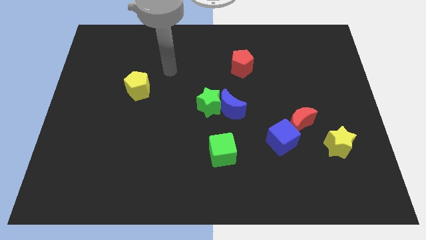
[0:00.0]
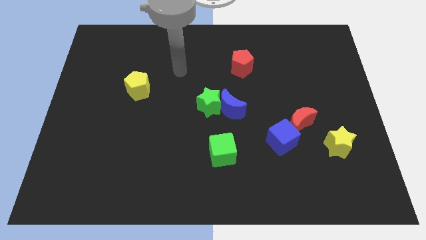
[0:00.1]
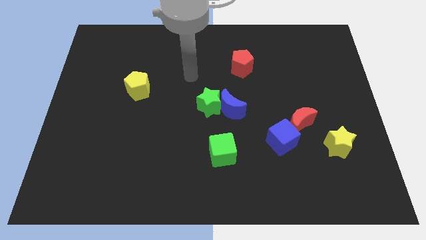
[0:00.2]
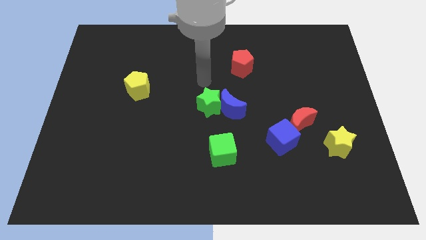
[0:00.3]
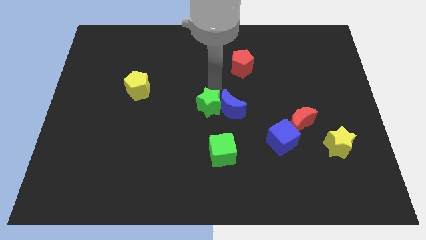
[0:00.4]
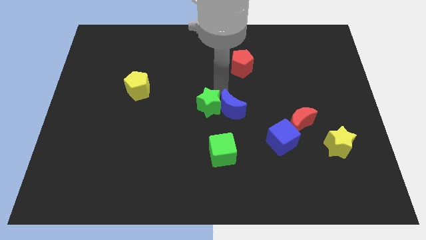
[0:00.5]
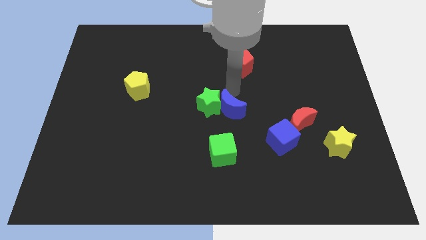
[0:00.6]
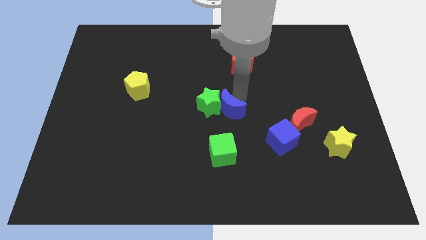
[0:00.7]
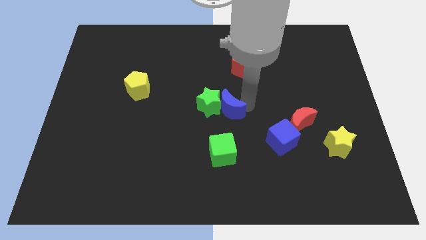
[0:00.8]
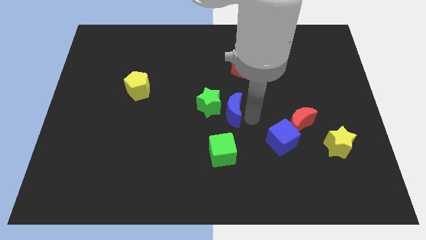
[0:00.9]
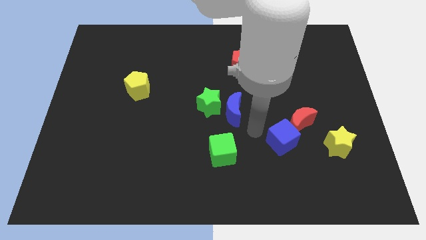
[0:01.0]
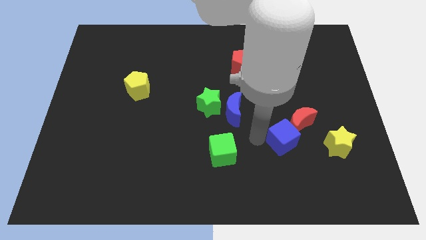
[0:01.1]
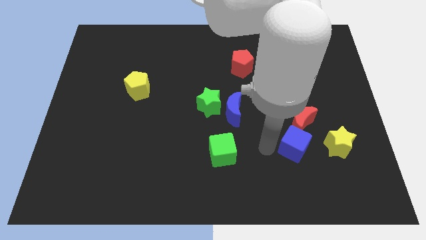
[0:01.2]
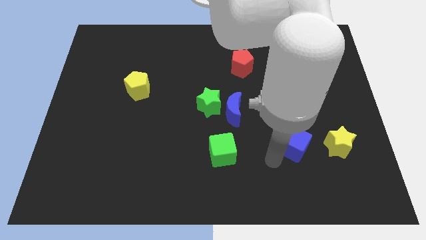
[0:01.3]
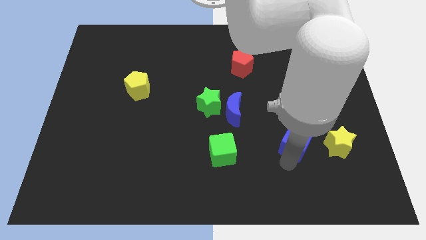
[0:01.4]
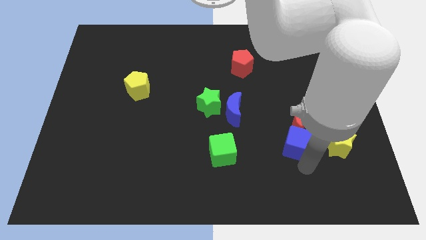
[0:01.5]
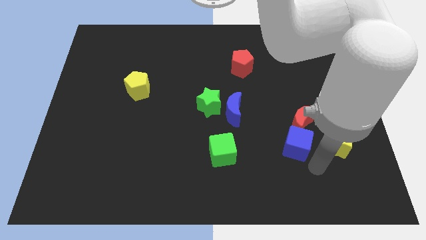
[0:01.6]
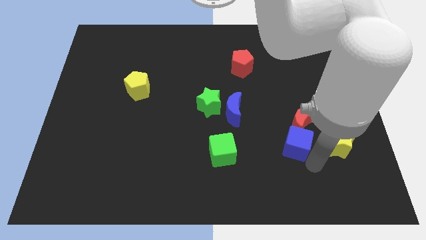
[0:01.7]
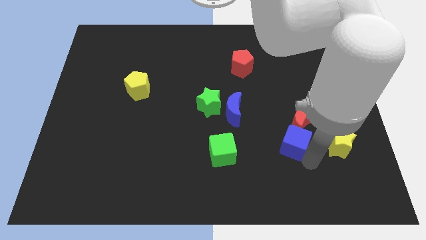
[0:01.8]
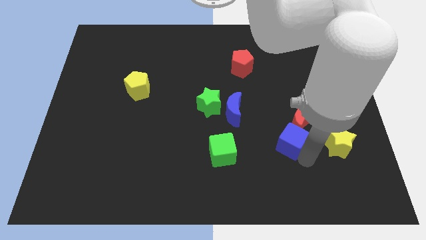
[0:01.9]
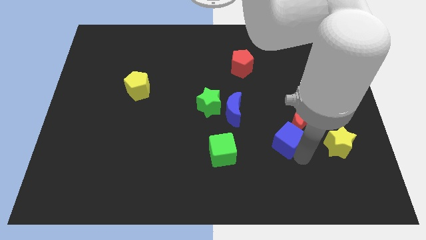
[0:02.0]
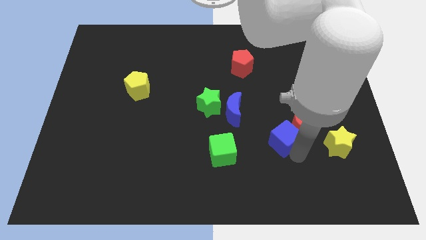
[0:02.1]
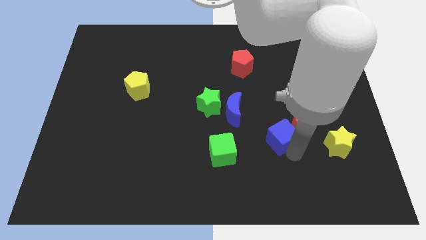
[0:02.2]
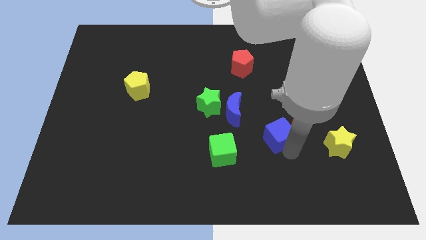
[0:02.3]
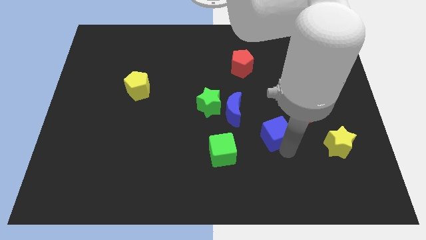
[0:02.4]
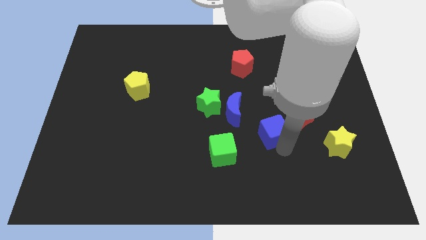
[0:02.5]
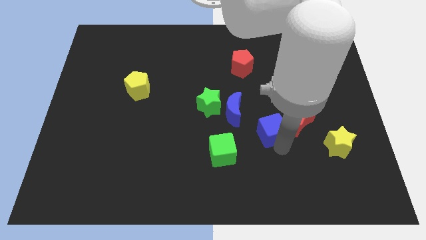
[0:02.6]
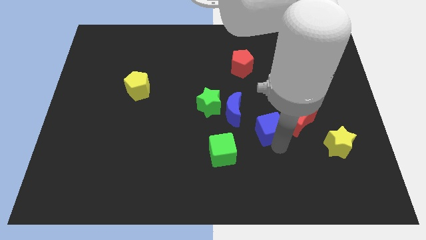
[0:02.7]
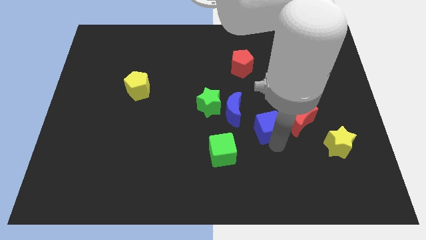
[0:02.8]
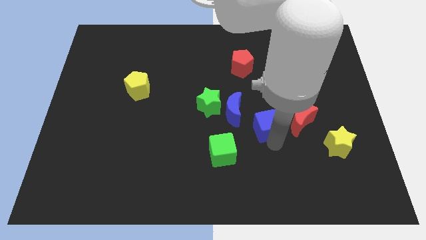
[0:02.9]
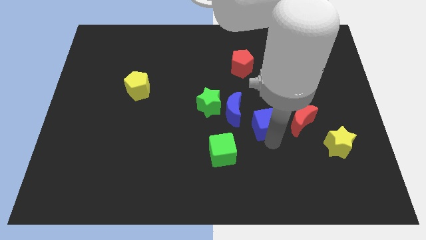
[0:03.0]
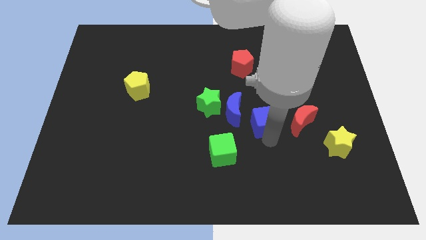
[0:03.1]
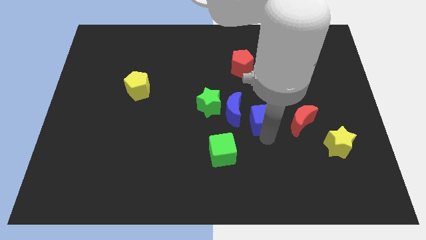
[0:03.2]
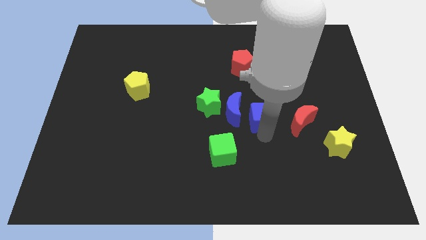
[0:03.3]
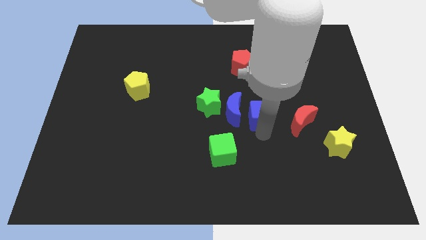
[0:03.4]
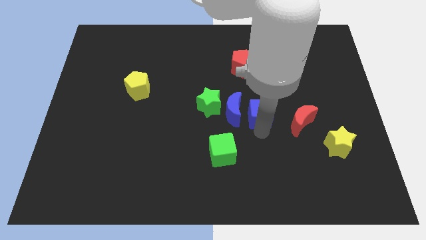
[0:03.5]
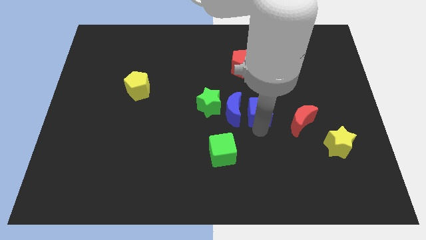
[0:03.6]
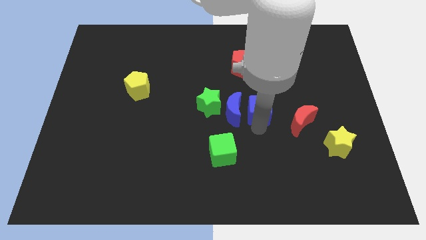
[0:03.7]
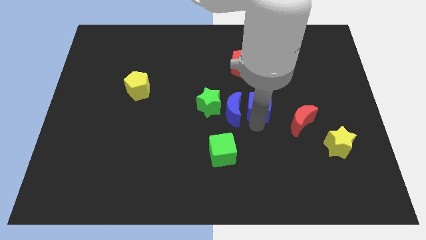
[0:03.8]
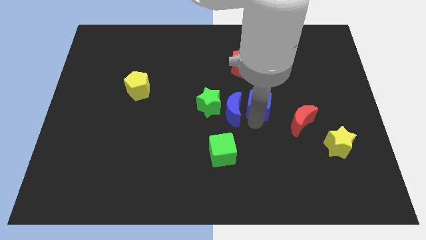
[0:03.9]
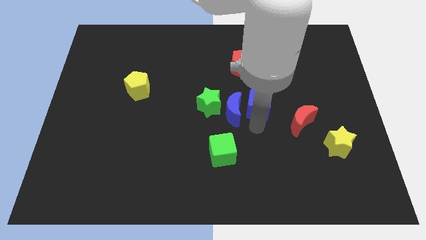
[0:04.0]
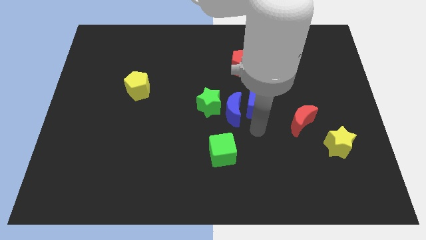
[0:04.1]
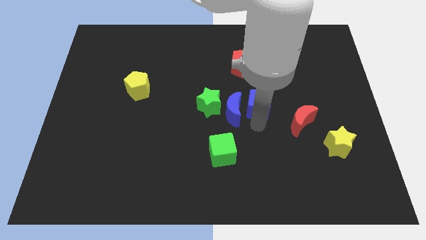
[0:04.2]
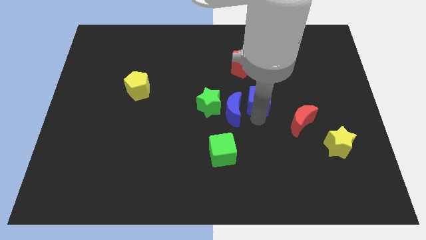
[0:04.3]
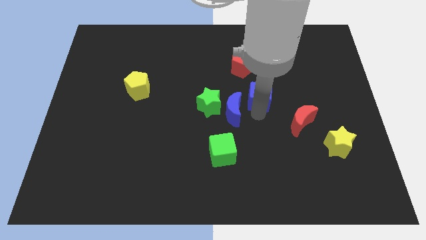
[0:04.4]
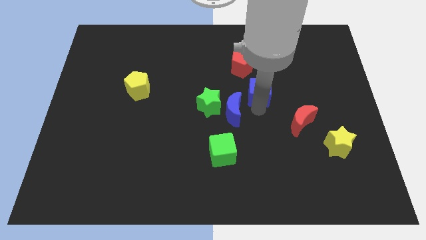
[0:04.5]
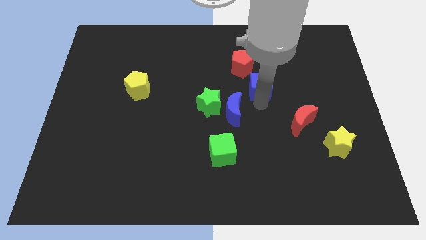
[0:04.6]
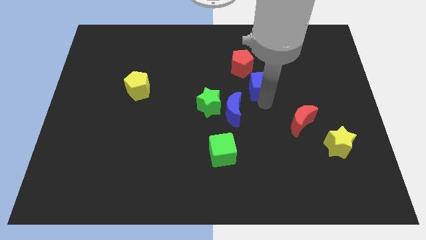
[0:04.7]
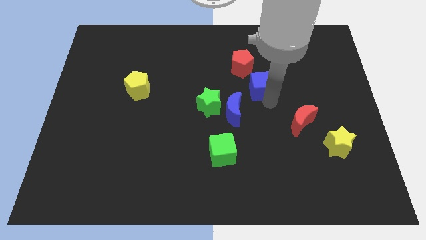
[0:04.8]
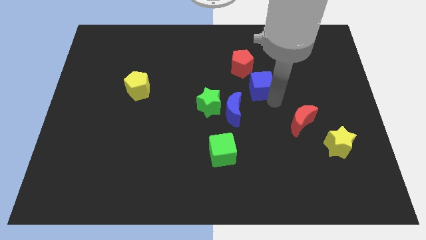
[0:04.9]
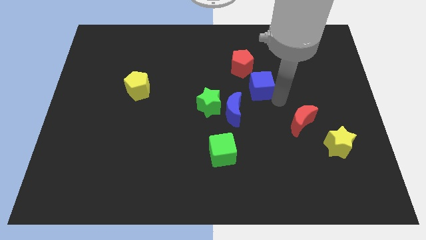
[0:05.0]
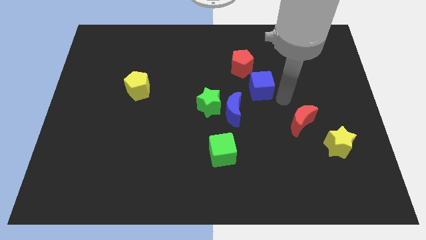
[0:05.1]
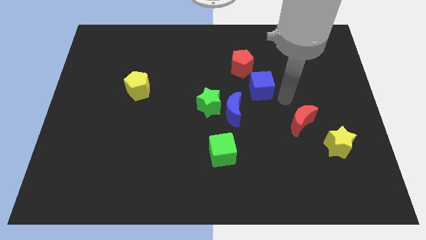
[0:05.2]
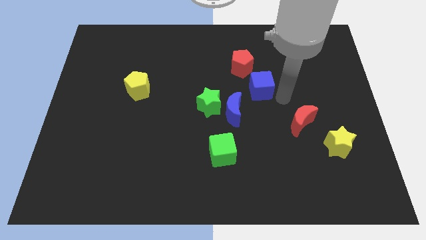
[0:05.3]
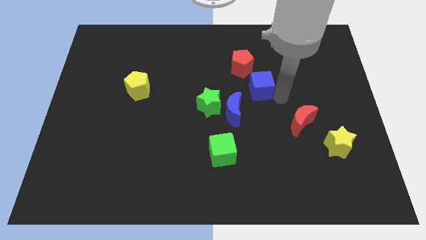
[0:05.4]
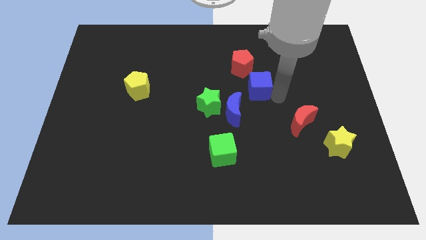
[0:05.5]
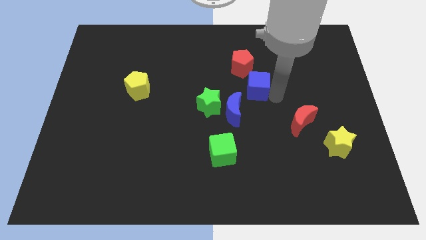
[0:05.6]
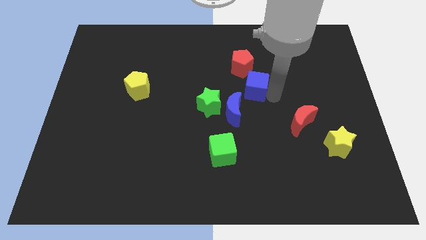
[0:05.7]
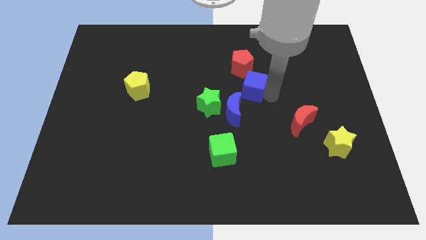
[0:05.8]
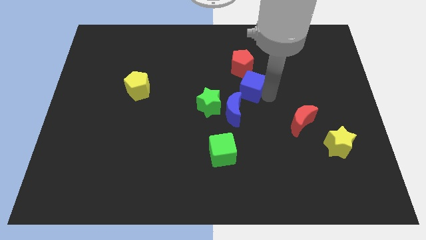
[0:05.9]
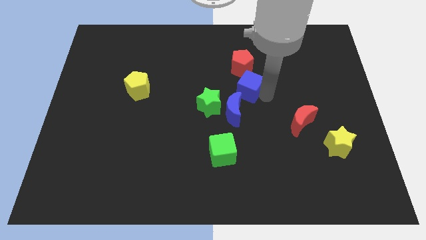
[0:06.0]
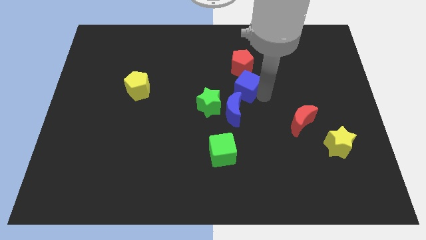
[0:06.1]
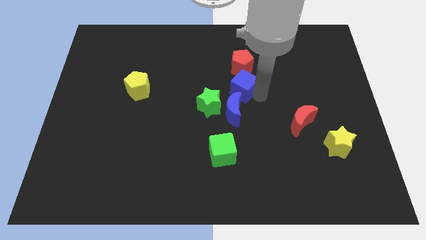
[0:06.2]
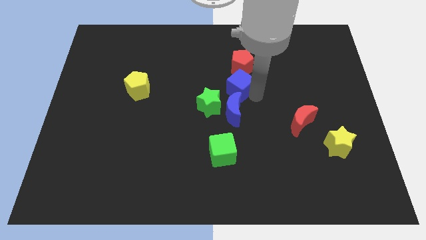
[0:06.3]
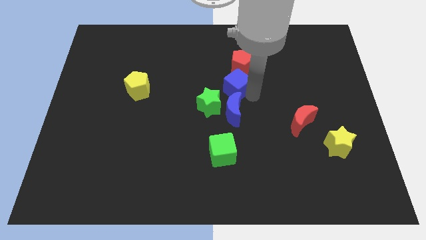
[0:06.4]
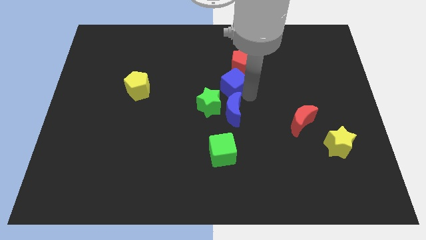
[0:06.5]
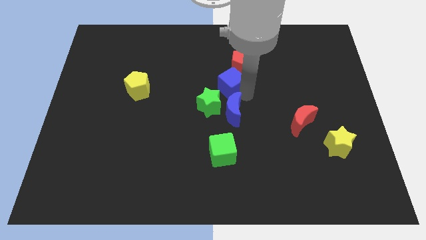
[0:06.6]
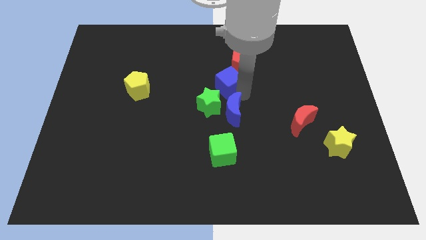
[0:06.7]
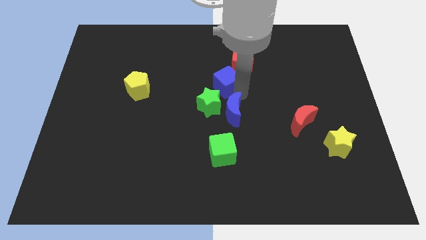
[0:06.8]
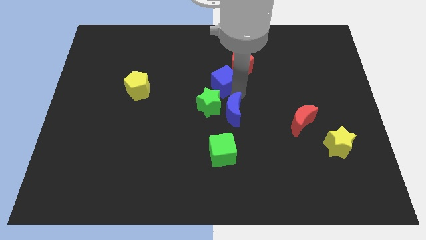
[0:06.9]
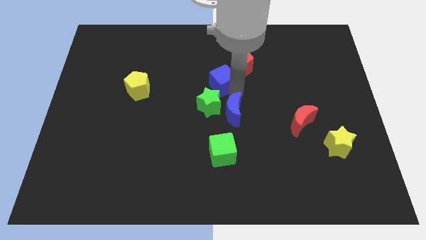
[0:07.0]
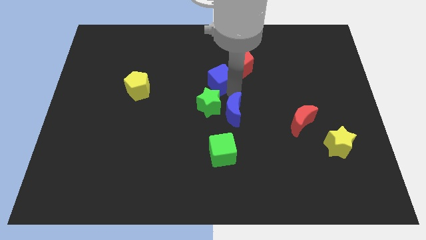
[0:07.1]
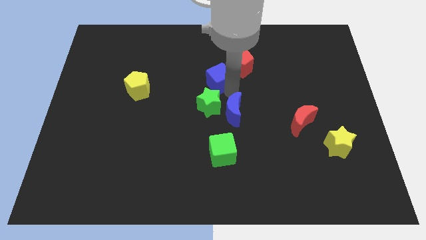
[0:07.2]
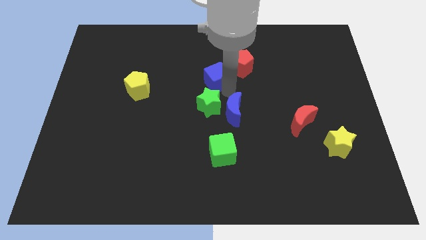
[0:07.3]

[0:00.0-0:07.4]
push the blue cube to the left of the red pentagon

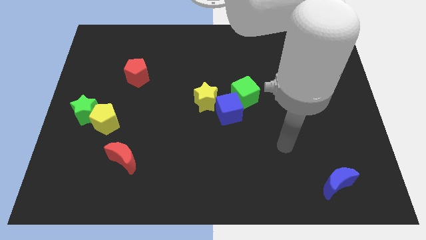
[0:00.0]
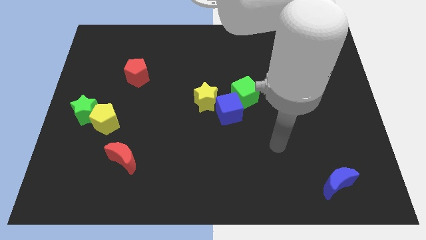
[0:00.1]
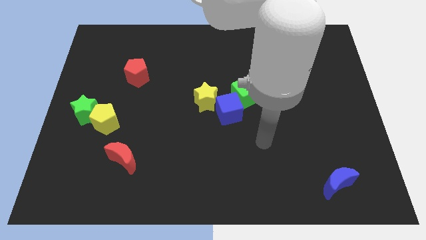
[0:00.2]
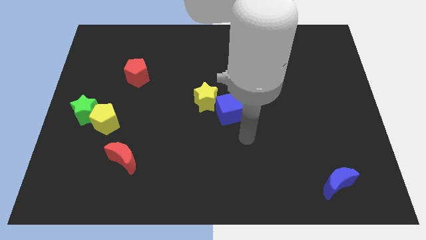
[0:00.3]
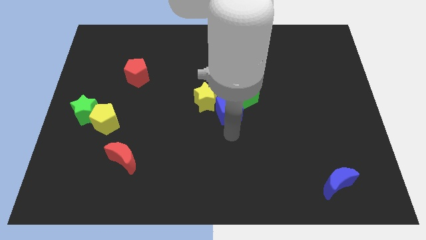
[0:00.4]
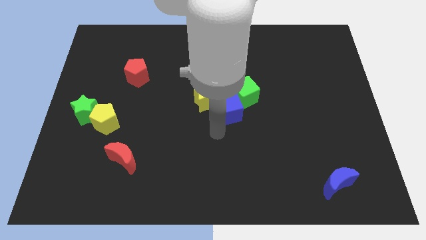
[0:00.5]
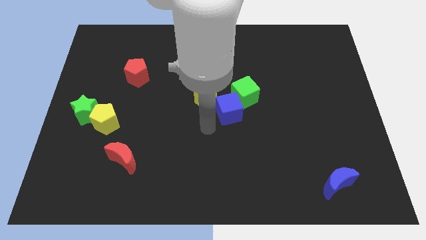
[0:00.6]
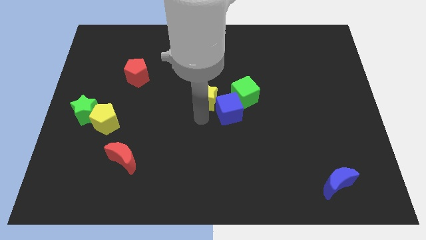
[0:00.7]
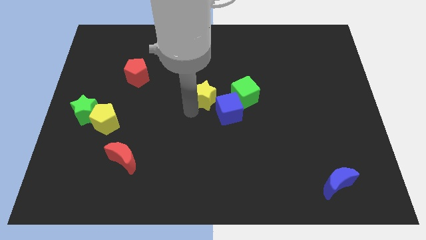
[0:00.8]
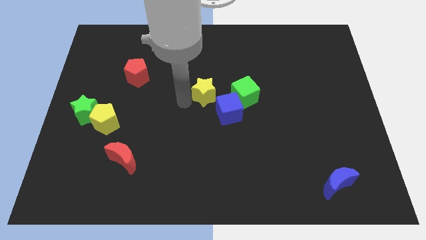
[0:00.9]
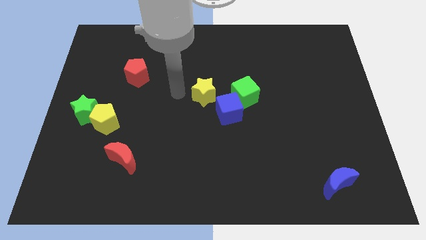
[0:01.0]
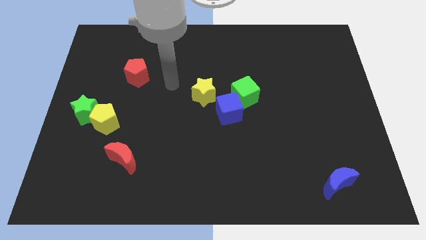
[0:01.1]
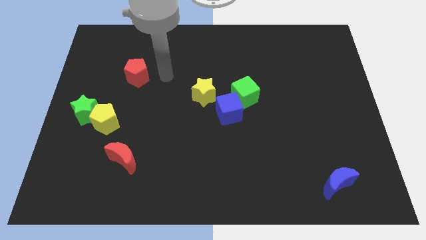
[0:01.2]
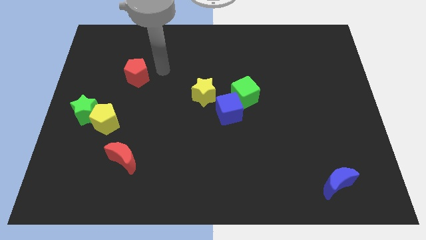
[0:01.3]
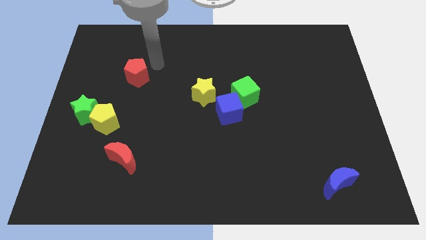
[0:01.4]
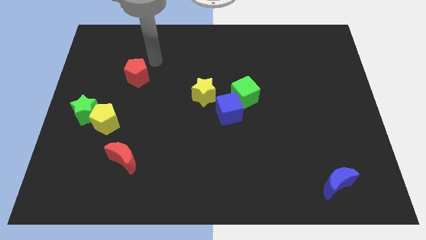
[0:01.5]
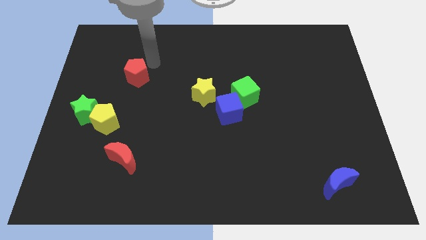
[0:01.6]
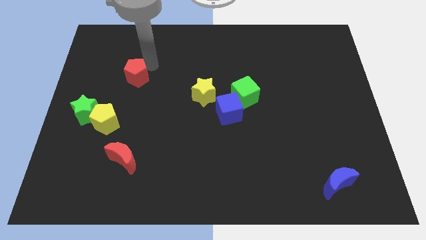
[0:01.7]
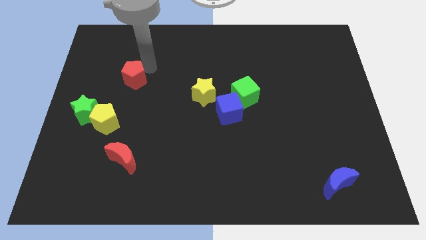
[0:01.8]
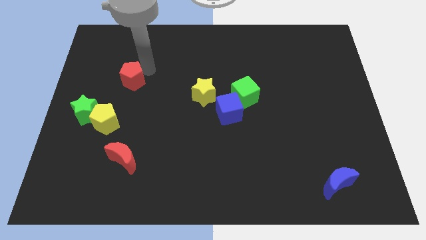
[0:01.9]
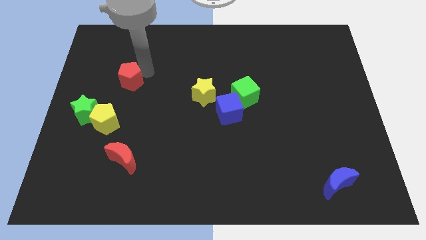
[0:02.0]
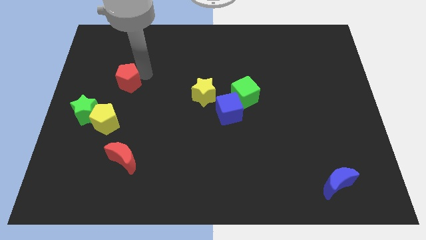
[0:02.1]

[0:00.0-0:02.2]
slide the red pentagon diagonally up and to the right of the green star
